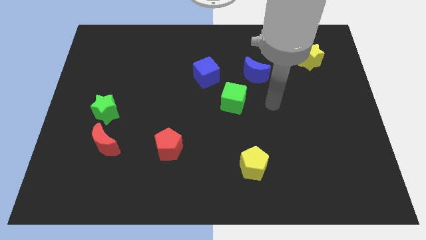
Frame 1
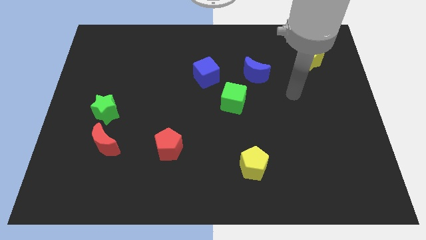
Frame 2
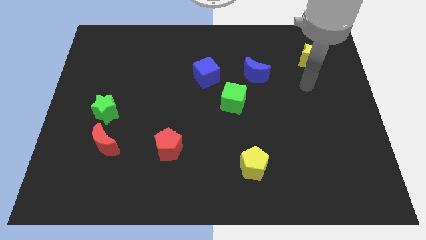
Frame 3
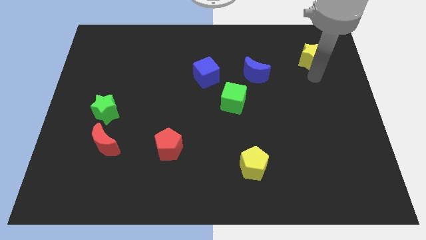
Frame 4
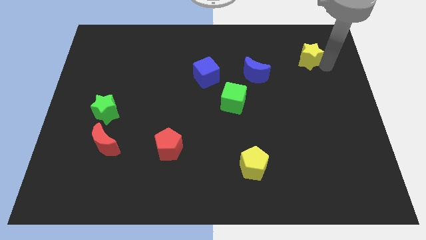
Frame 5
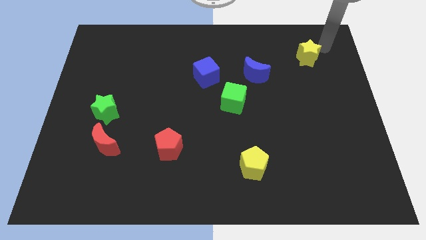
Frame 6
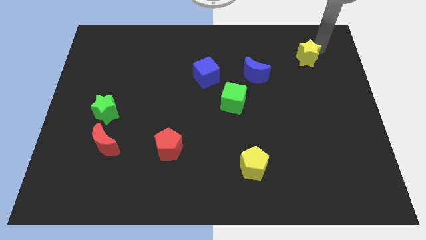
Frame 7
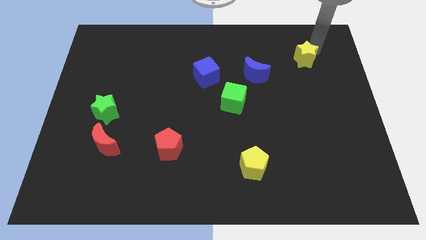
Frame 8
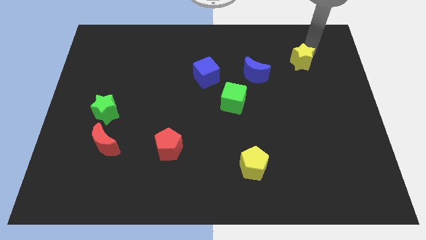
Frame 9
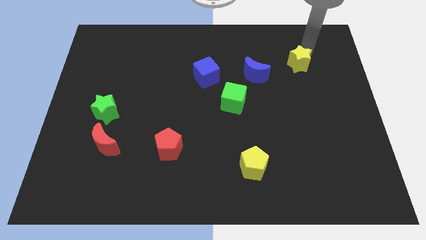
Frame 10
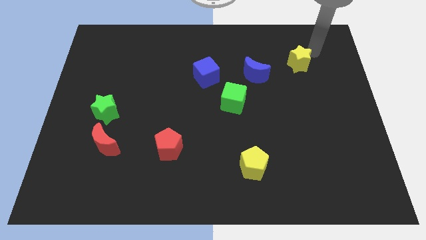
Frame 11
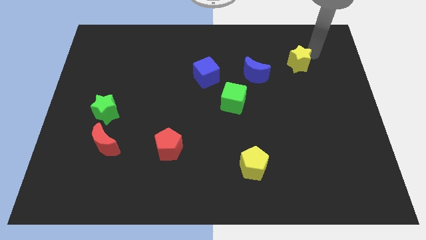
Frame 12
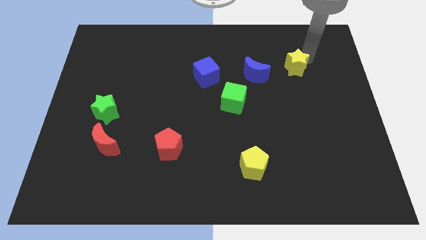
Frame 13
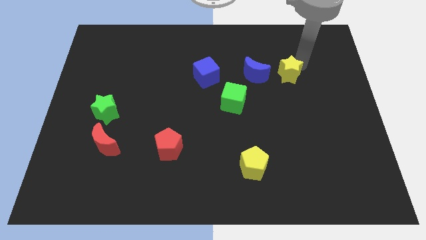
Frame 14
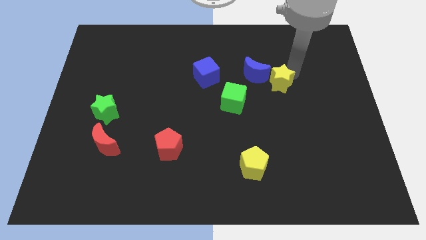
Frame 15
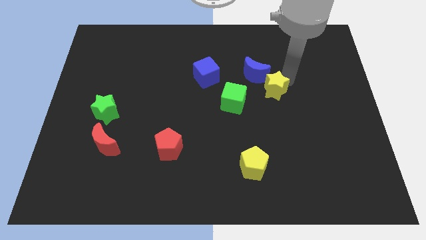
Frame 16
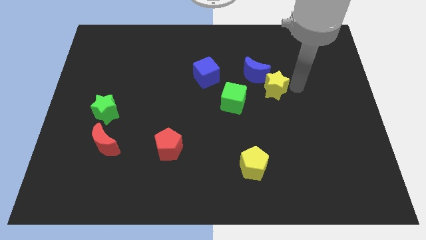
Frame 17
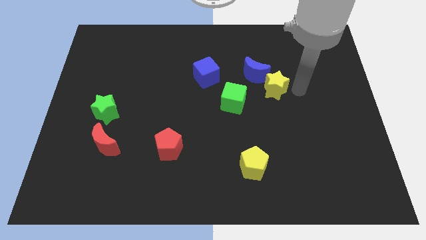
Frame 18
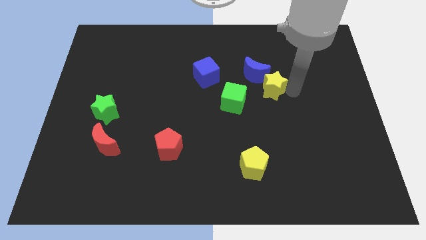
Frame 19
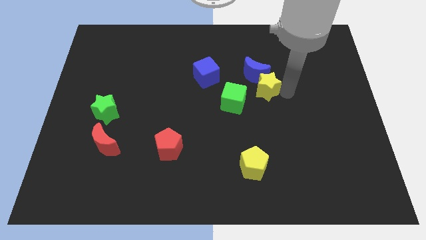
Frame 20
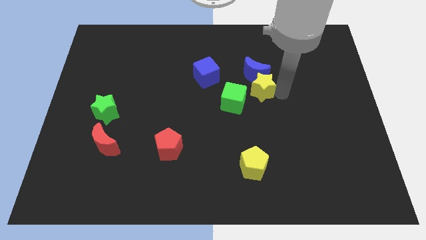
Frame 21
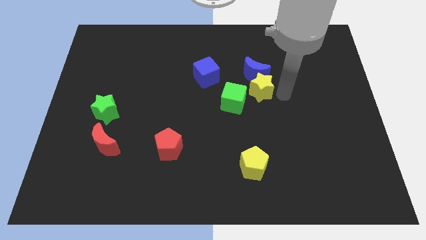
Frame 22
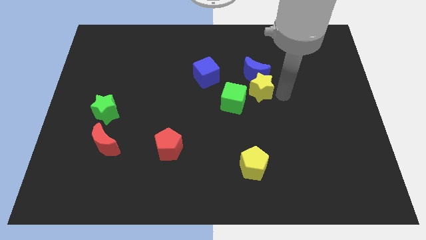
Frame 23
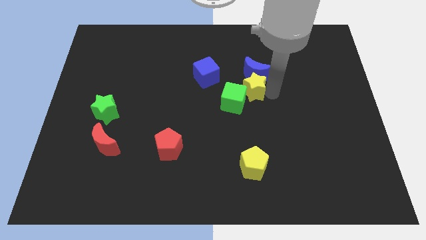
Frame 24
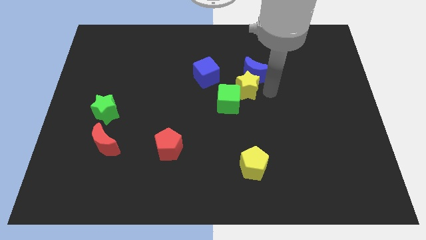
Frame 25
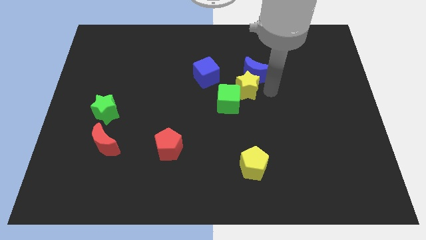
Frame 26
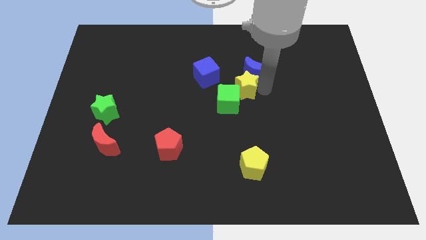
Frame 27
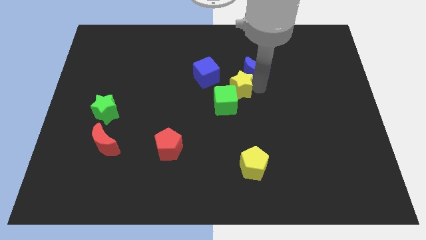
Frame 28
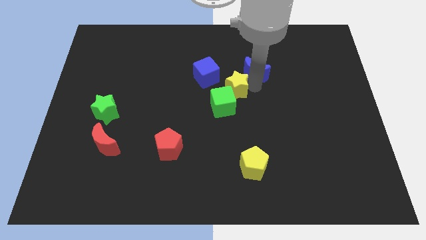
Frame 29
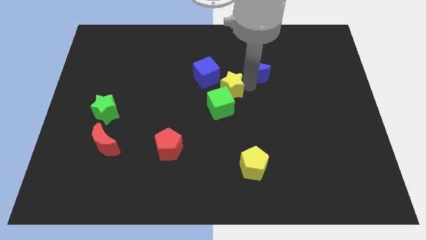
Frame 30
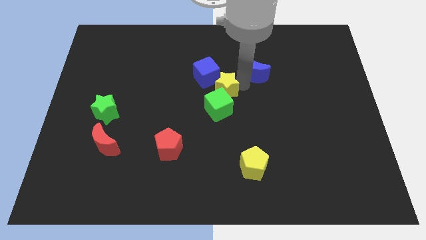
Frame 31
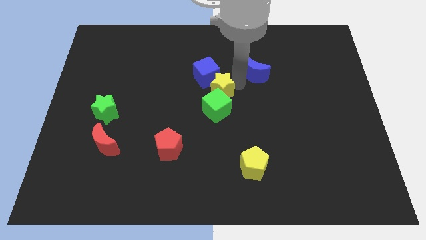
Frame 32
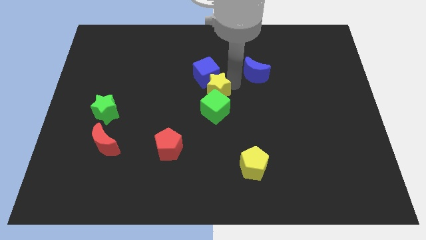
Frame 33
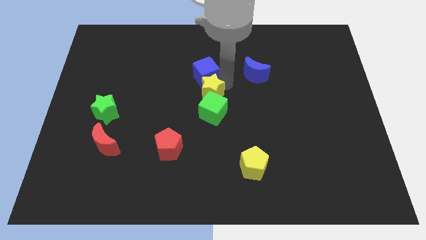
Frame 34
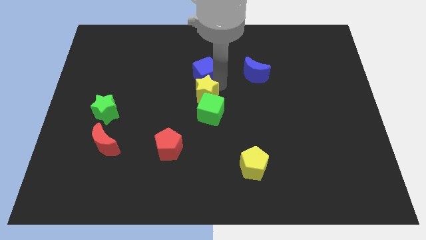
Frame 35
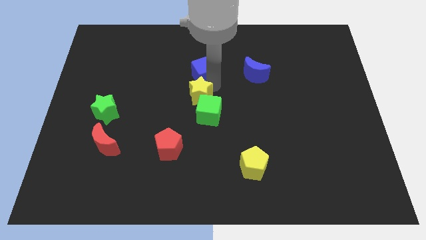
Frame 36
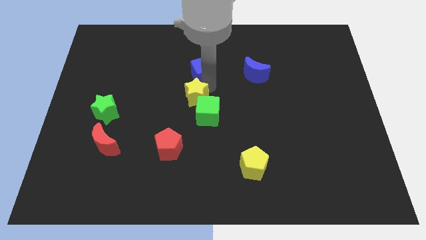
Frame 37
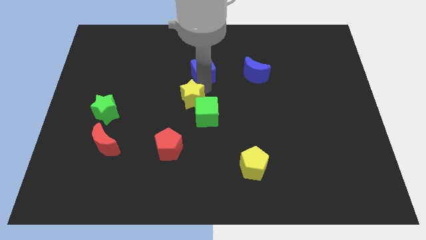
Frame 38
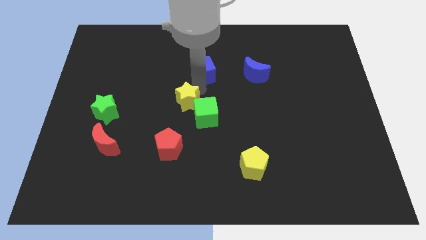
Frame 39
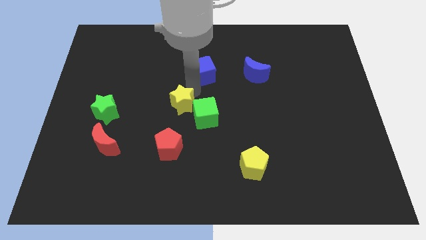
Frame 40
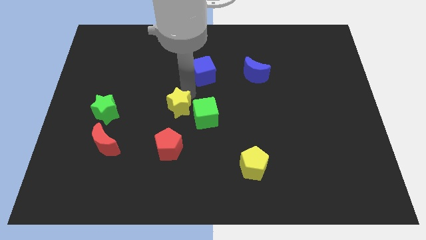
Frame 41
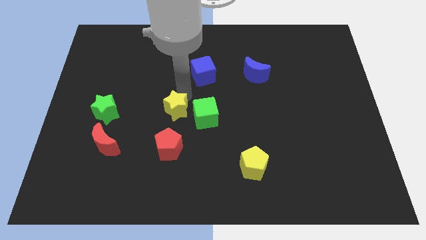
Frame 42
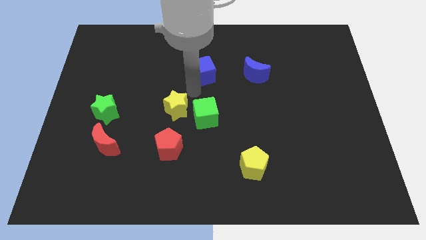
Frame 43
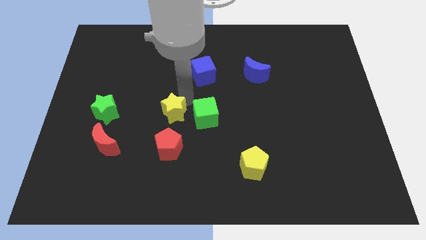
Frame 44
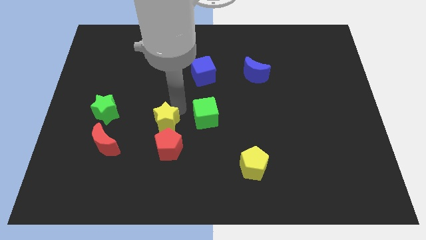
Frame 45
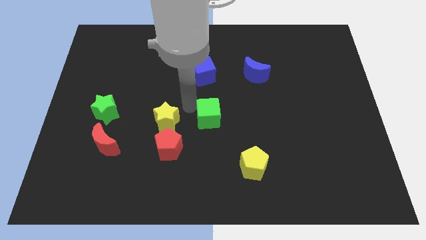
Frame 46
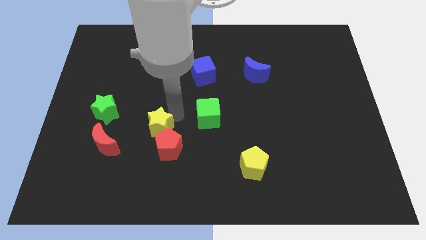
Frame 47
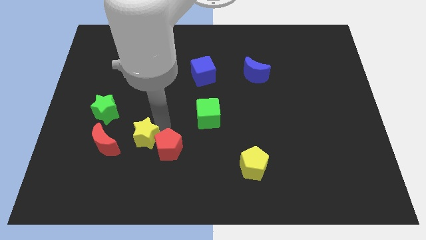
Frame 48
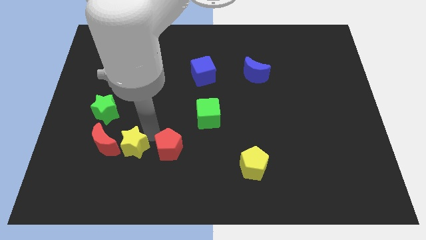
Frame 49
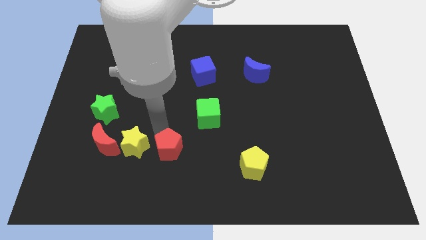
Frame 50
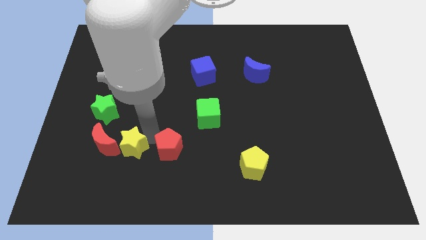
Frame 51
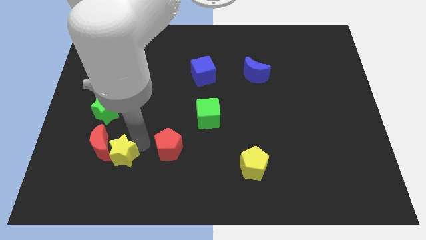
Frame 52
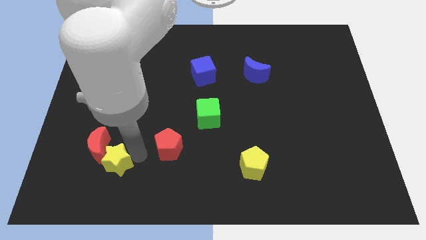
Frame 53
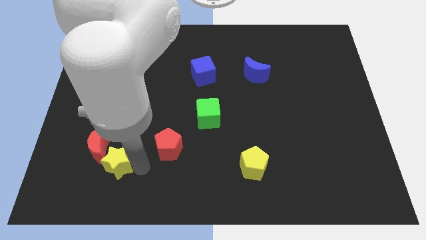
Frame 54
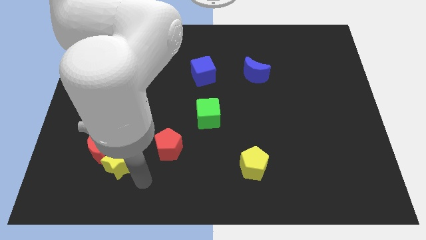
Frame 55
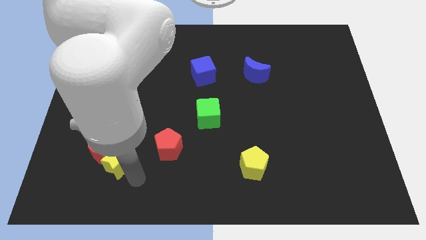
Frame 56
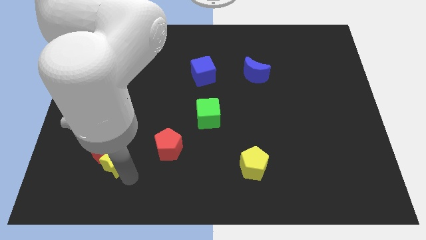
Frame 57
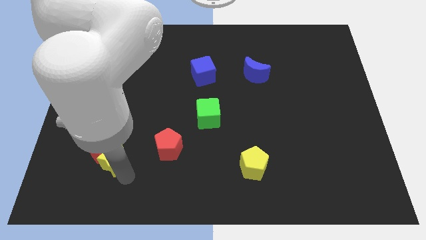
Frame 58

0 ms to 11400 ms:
slide the yellow star to the bottom of the green star

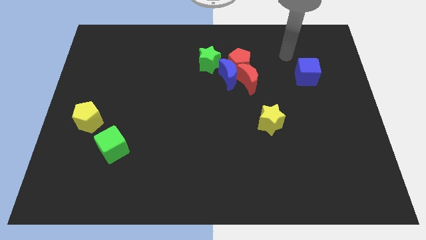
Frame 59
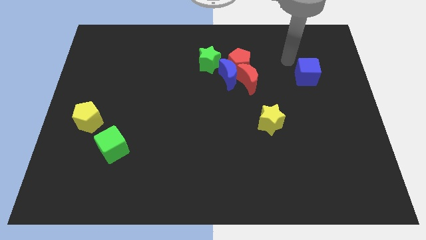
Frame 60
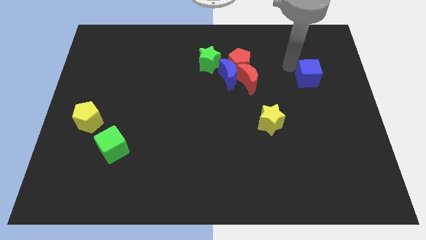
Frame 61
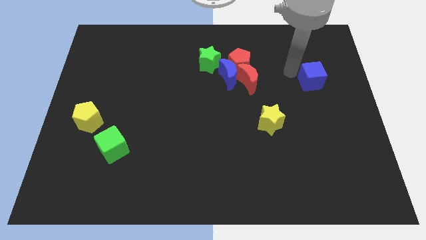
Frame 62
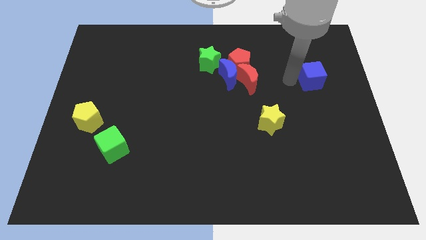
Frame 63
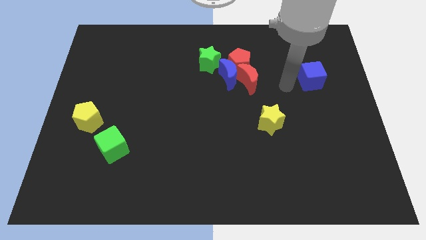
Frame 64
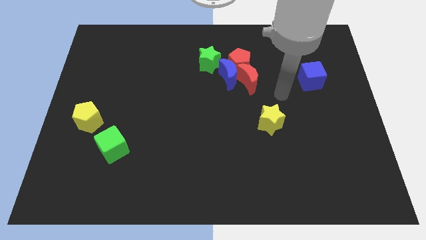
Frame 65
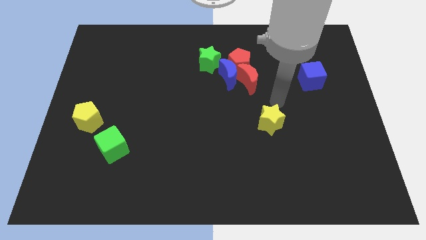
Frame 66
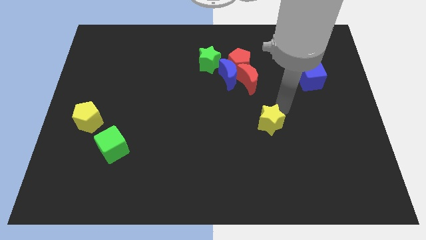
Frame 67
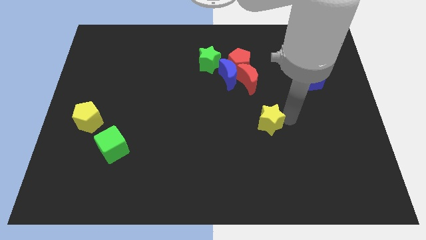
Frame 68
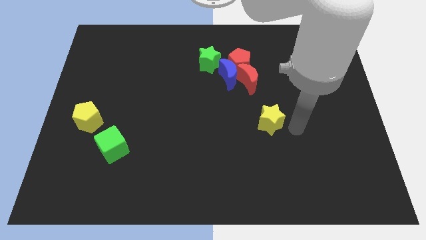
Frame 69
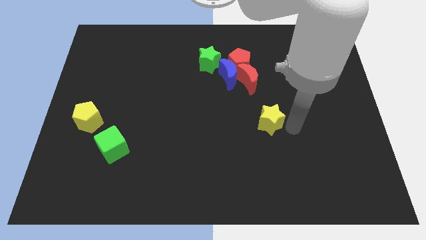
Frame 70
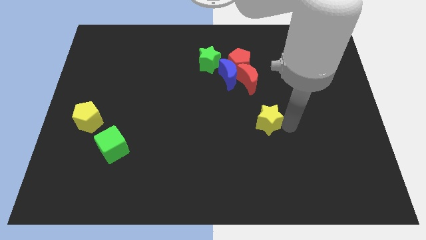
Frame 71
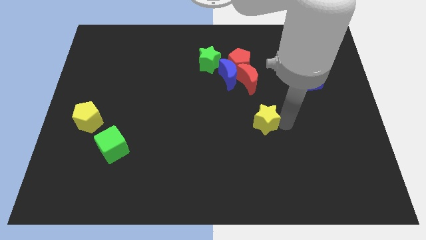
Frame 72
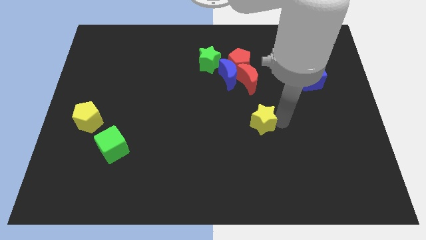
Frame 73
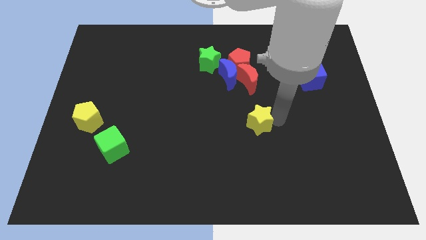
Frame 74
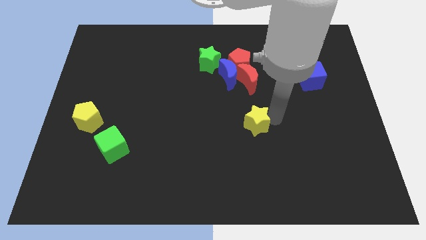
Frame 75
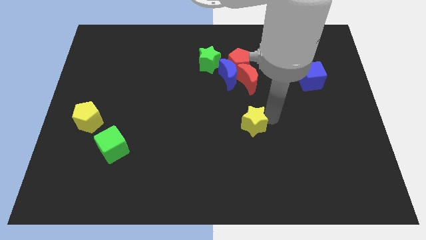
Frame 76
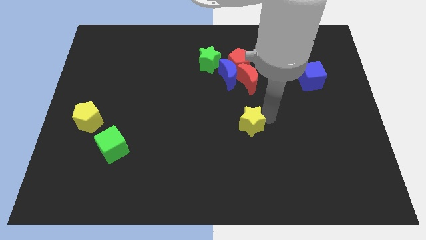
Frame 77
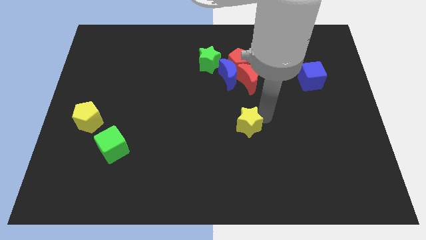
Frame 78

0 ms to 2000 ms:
push the yellow star to the bottom side of the blue moon
